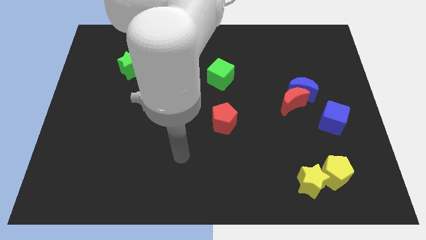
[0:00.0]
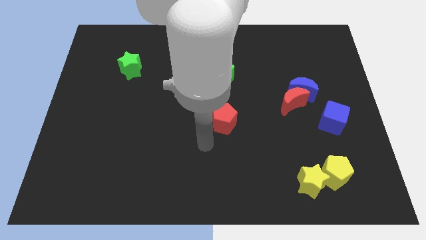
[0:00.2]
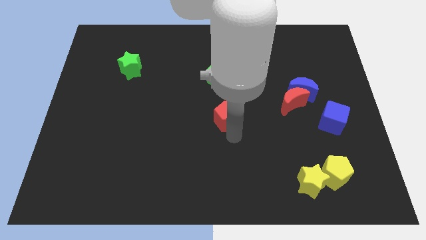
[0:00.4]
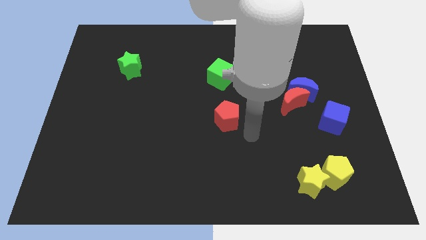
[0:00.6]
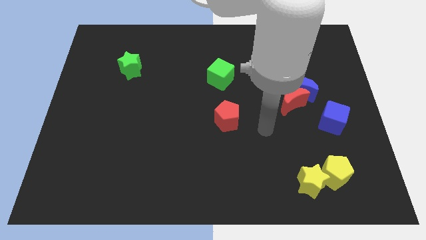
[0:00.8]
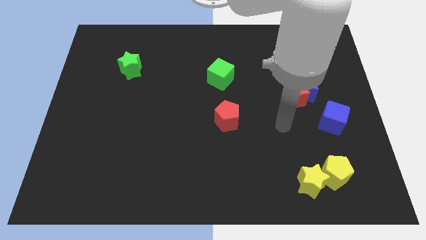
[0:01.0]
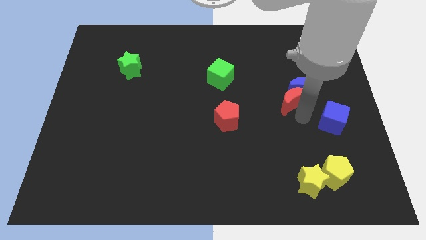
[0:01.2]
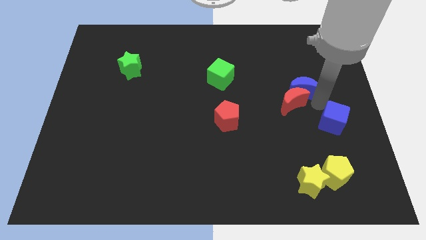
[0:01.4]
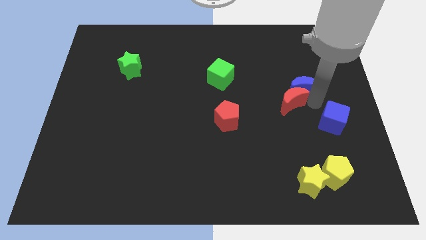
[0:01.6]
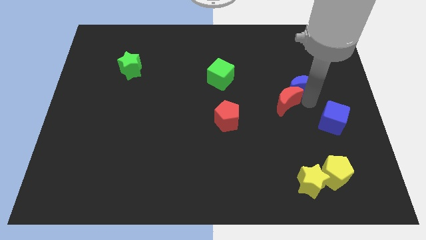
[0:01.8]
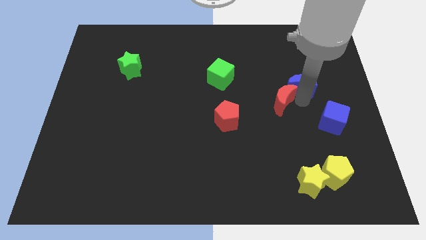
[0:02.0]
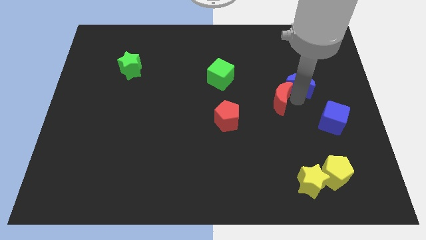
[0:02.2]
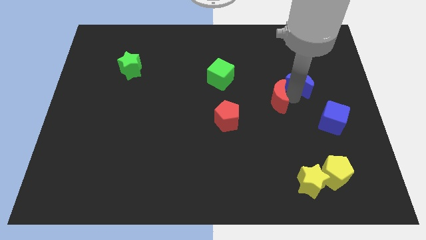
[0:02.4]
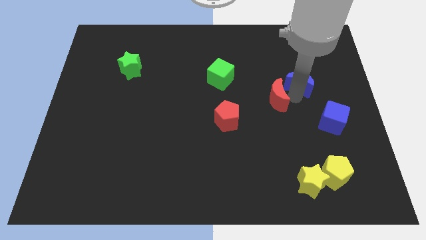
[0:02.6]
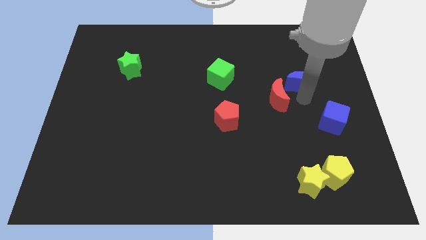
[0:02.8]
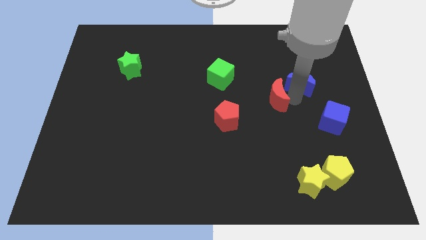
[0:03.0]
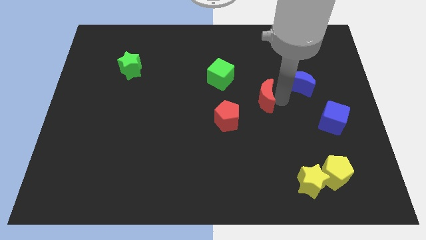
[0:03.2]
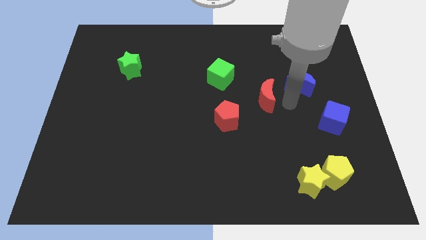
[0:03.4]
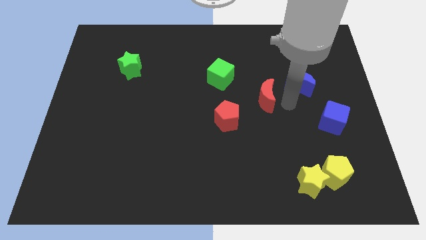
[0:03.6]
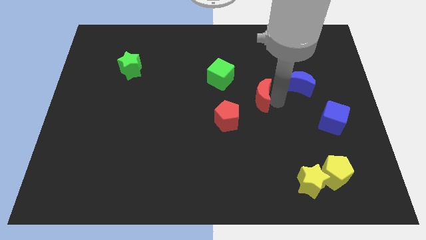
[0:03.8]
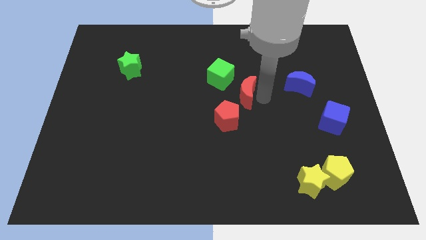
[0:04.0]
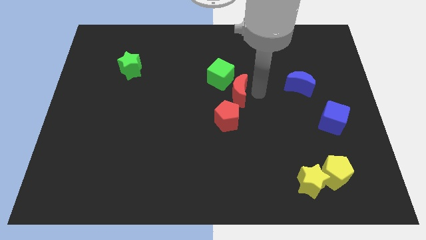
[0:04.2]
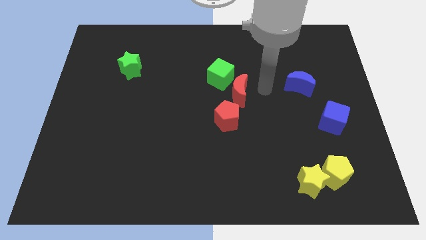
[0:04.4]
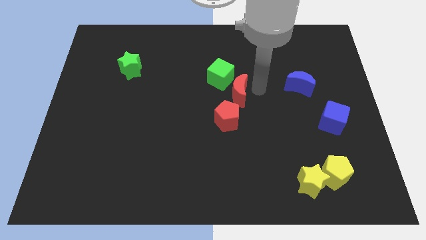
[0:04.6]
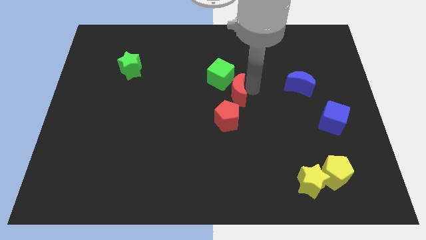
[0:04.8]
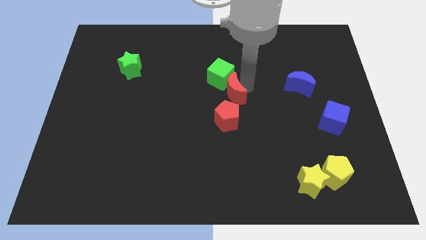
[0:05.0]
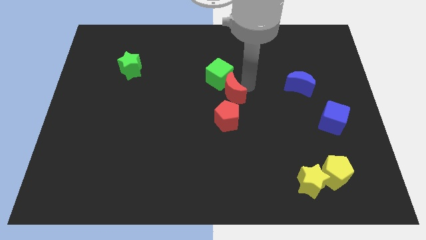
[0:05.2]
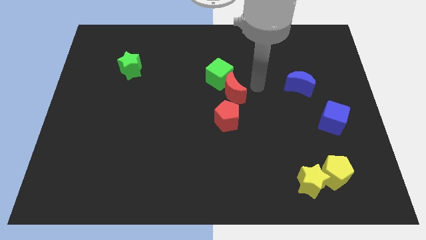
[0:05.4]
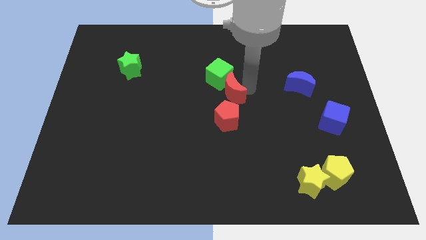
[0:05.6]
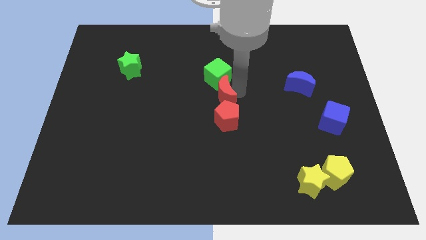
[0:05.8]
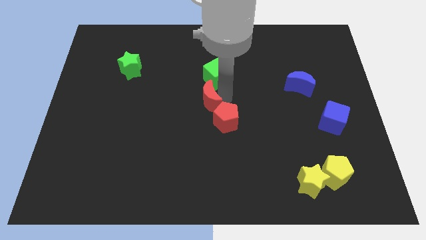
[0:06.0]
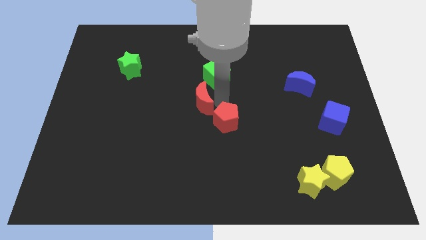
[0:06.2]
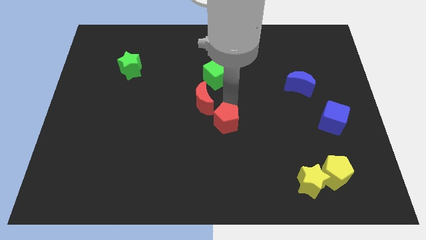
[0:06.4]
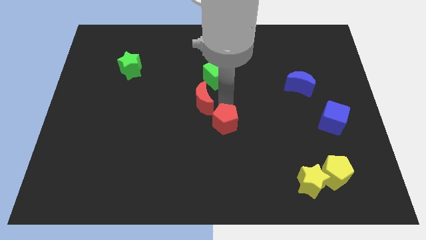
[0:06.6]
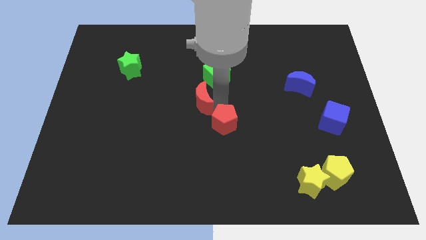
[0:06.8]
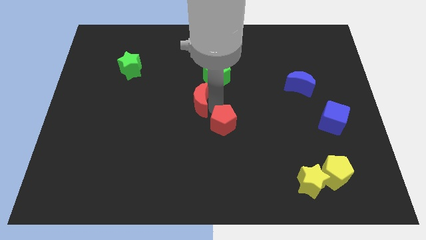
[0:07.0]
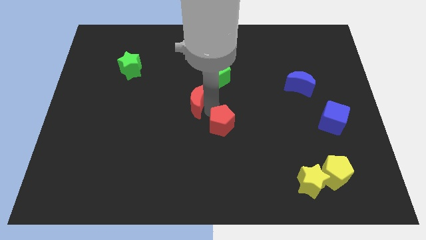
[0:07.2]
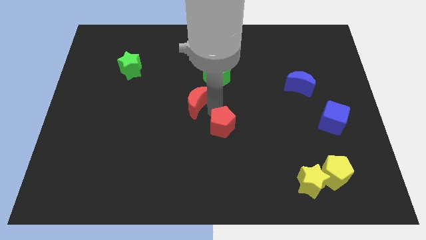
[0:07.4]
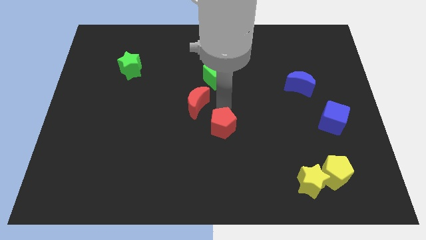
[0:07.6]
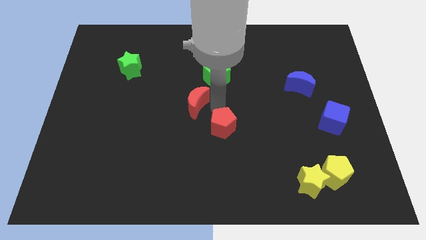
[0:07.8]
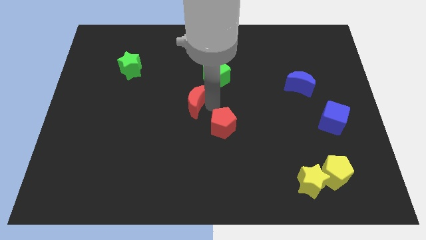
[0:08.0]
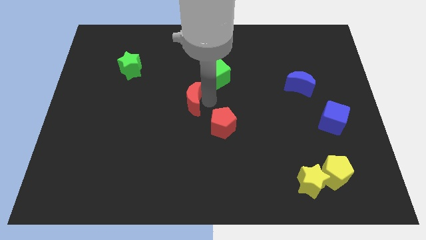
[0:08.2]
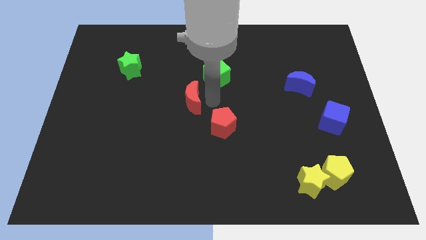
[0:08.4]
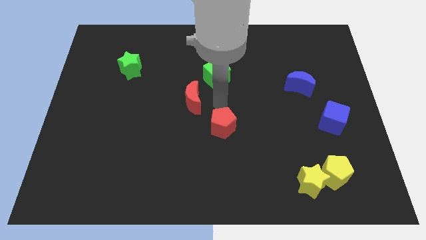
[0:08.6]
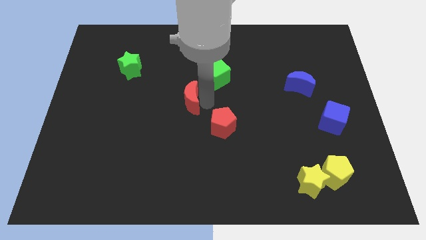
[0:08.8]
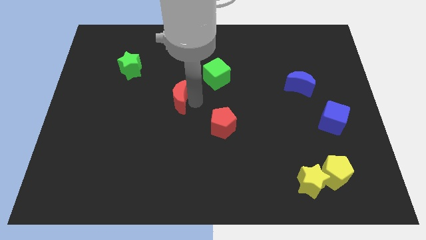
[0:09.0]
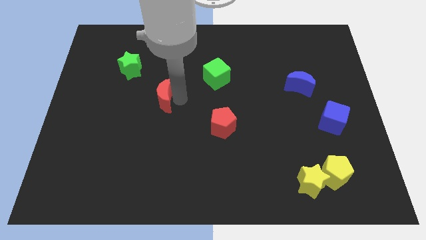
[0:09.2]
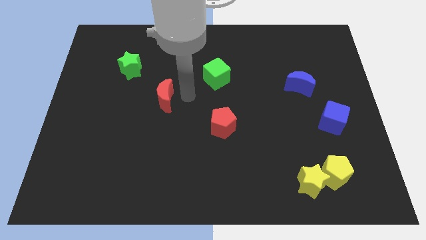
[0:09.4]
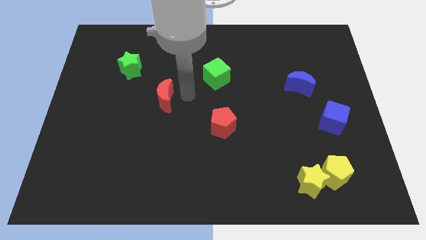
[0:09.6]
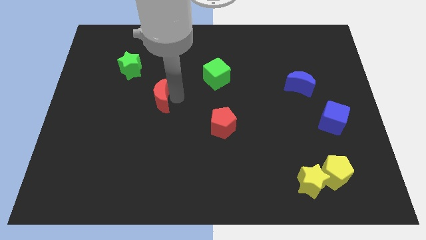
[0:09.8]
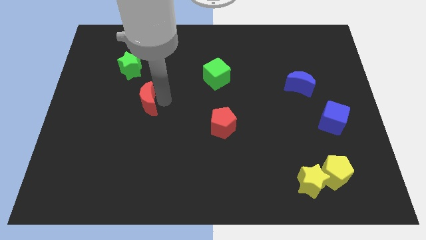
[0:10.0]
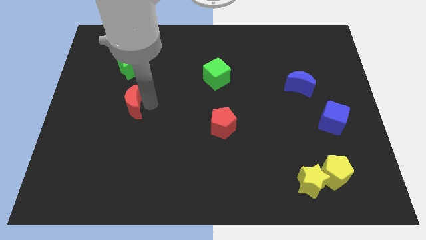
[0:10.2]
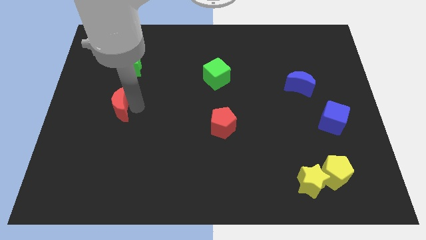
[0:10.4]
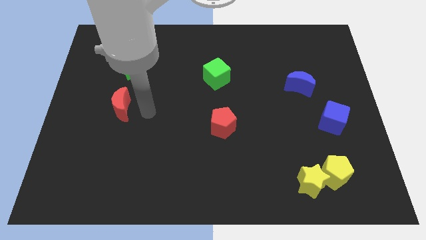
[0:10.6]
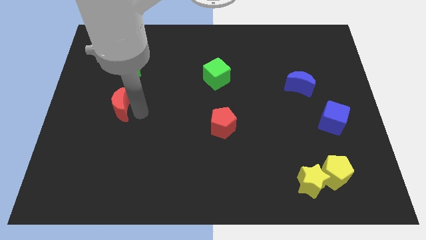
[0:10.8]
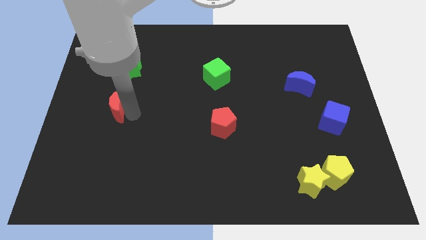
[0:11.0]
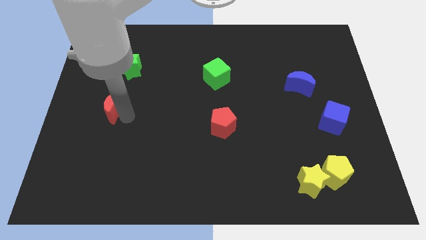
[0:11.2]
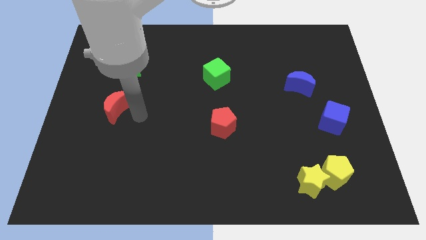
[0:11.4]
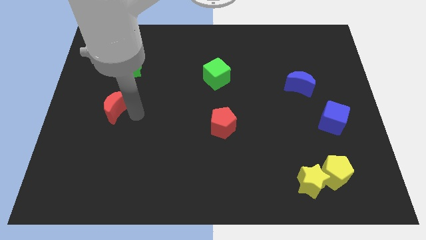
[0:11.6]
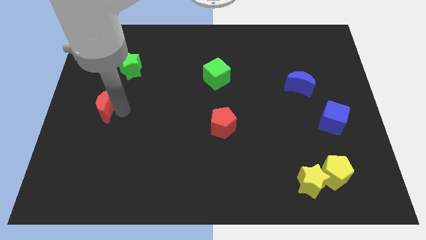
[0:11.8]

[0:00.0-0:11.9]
put the red moon to the center left

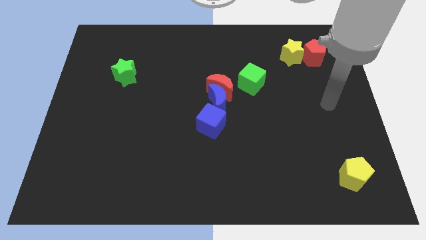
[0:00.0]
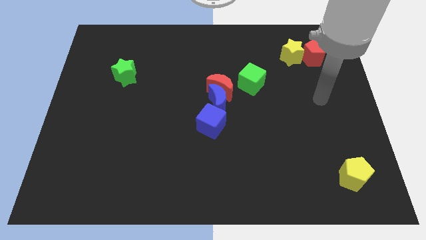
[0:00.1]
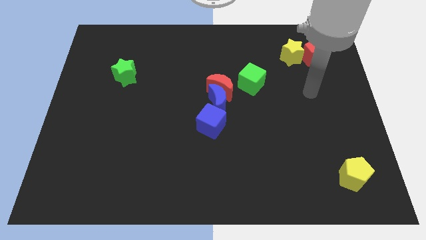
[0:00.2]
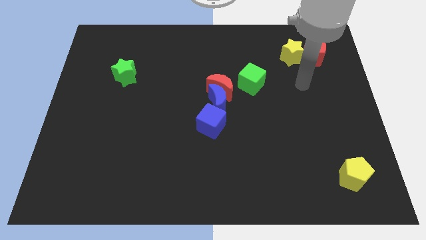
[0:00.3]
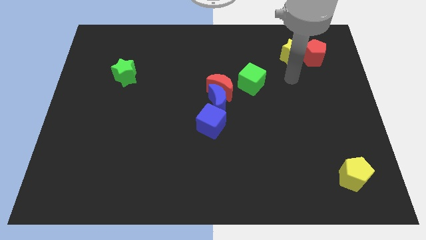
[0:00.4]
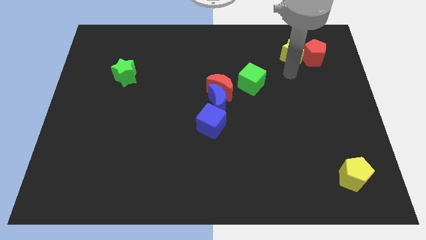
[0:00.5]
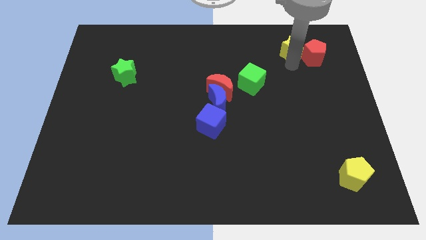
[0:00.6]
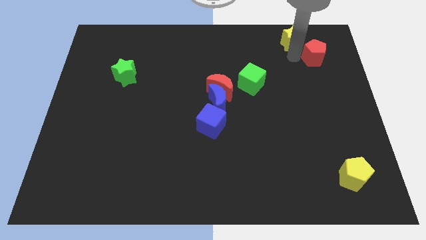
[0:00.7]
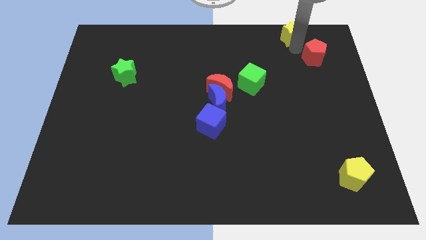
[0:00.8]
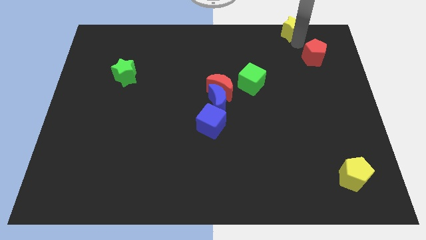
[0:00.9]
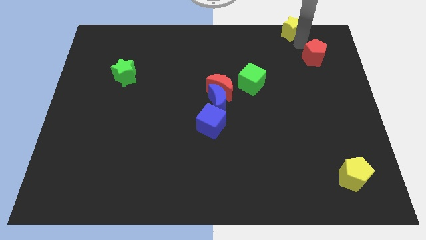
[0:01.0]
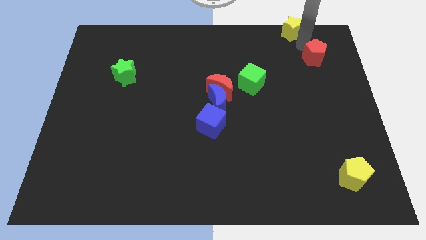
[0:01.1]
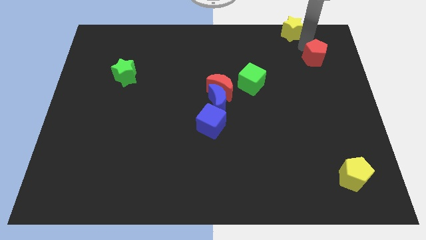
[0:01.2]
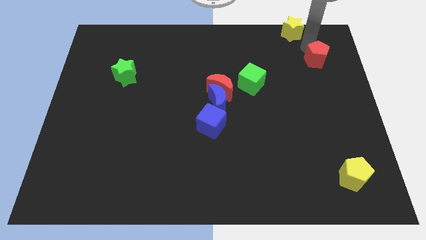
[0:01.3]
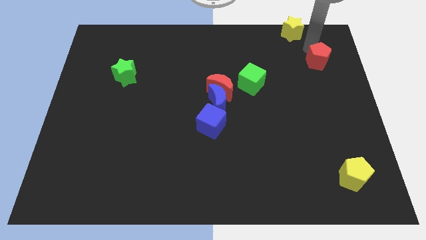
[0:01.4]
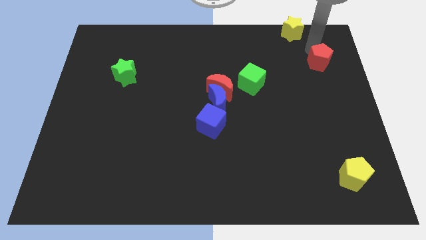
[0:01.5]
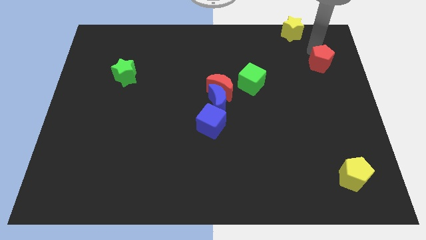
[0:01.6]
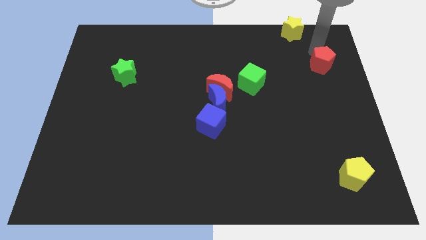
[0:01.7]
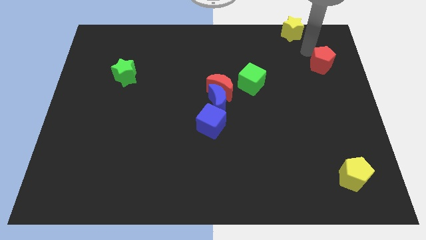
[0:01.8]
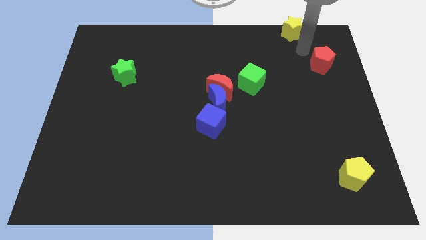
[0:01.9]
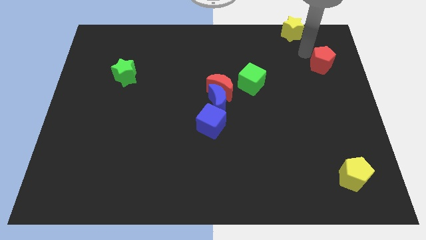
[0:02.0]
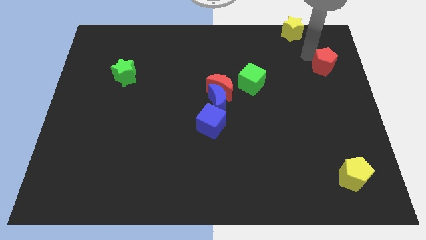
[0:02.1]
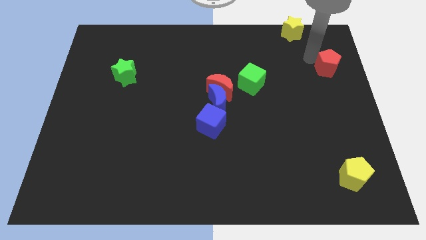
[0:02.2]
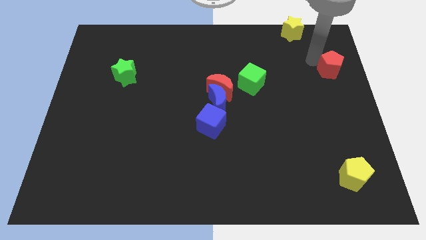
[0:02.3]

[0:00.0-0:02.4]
put the red pentagon to the right side
